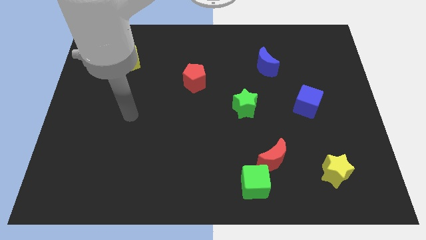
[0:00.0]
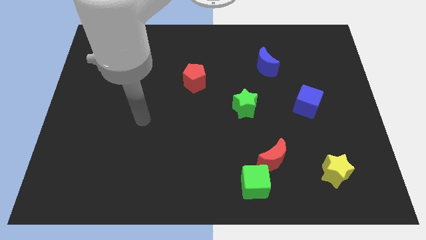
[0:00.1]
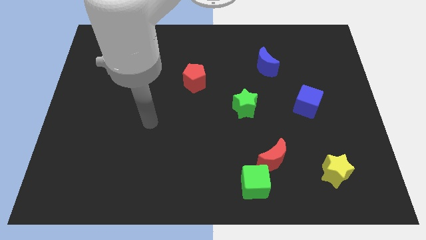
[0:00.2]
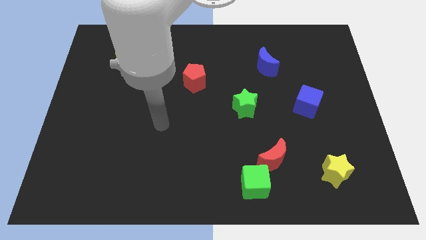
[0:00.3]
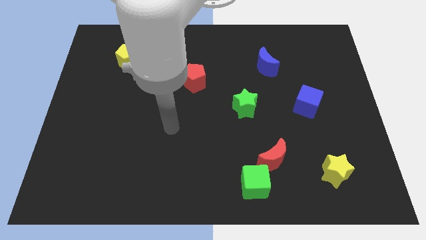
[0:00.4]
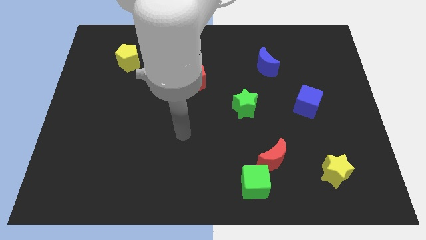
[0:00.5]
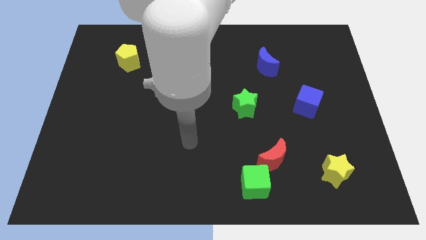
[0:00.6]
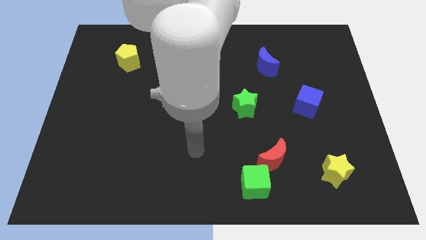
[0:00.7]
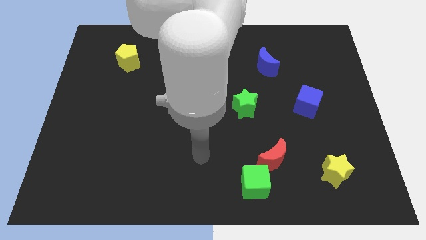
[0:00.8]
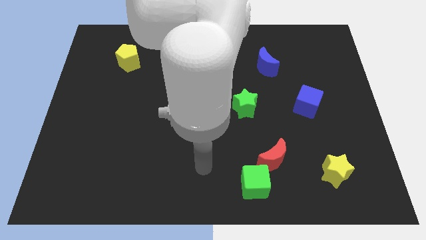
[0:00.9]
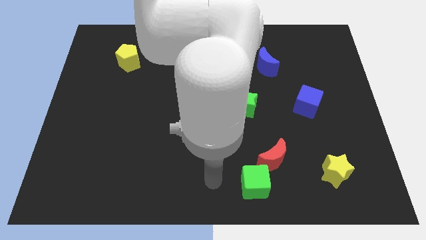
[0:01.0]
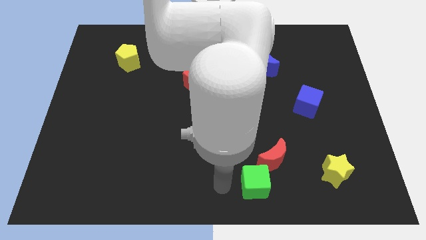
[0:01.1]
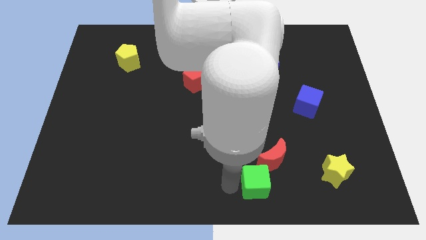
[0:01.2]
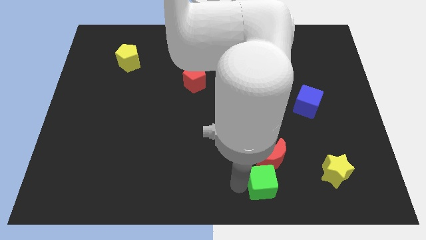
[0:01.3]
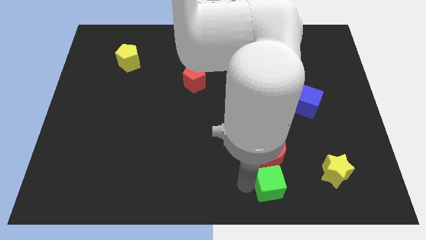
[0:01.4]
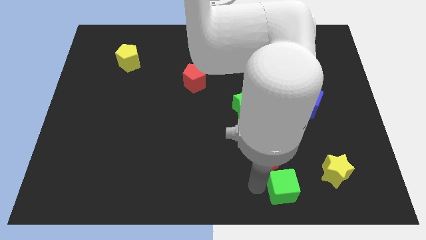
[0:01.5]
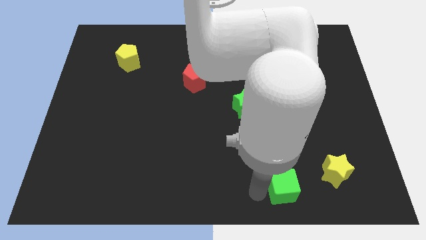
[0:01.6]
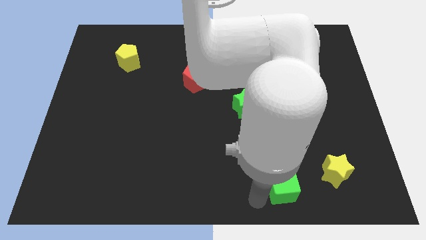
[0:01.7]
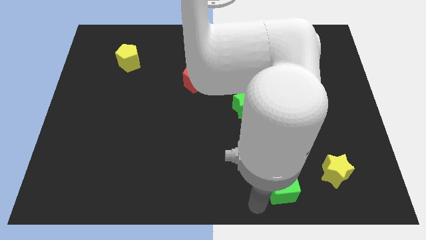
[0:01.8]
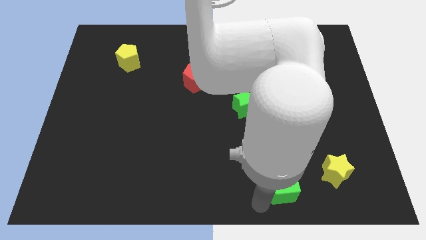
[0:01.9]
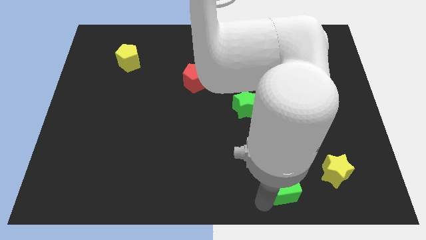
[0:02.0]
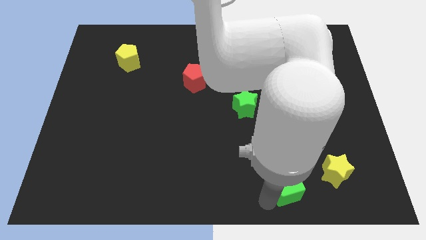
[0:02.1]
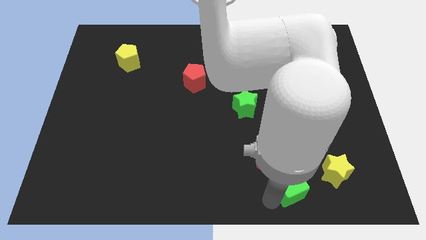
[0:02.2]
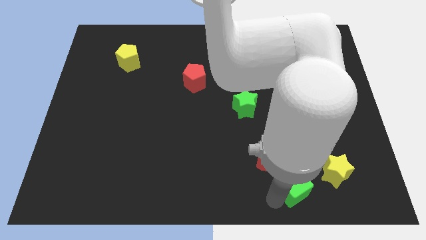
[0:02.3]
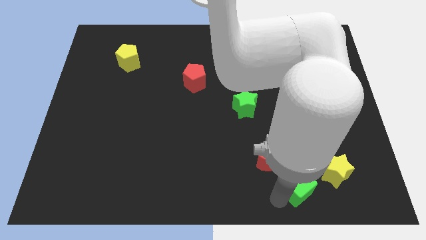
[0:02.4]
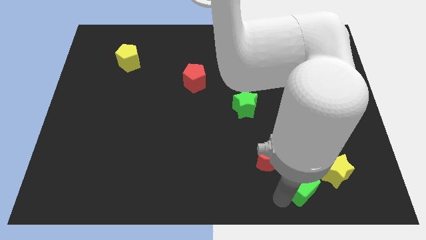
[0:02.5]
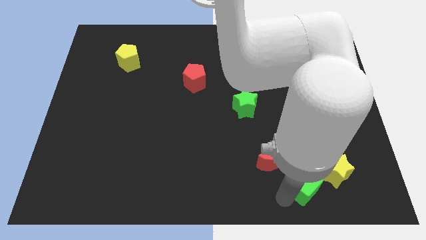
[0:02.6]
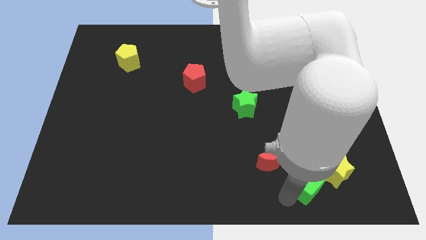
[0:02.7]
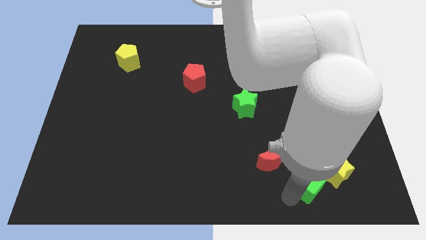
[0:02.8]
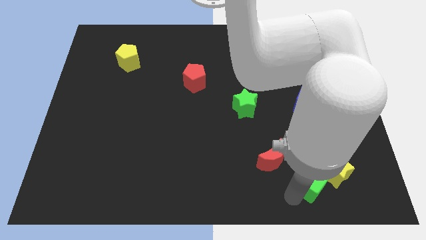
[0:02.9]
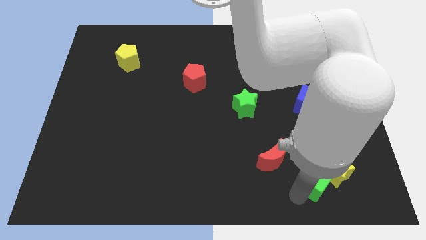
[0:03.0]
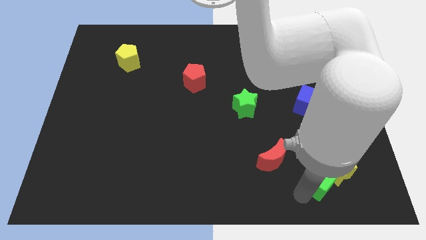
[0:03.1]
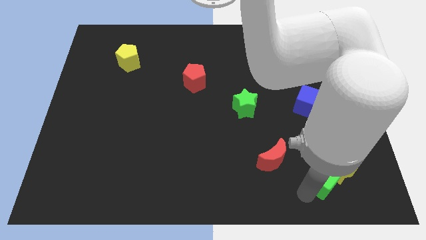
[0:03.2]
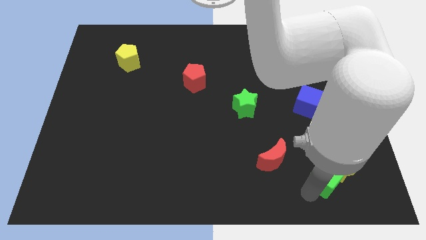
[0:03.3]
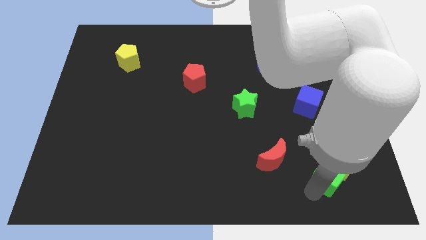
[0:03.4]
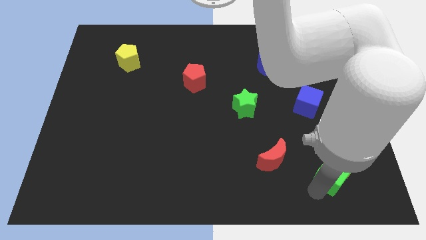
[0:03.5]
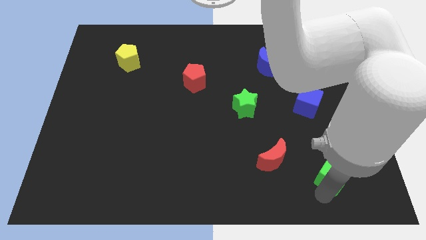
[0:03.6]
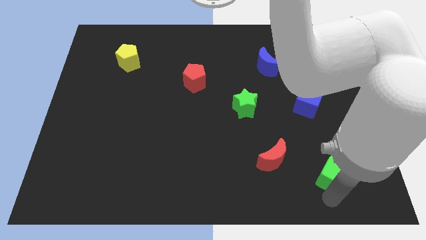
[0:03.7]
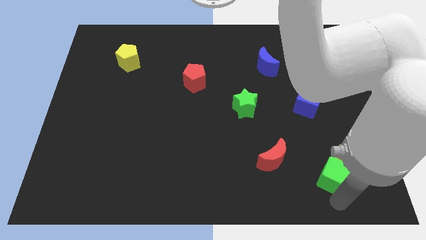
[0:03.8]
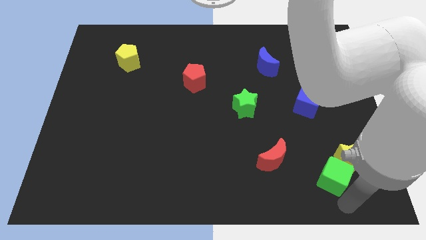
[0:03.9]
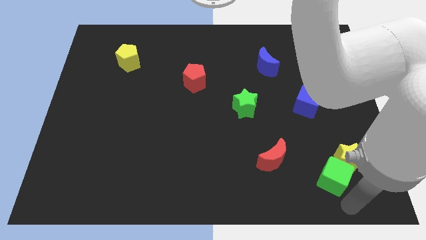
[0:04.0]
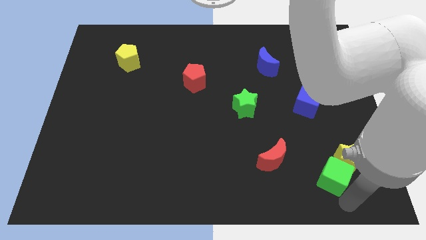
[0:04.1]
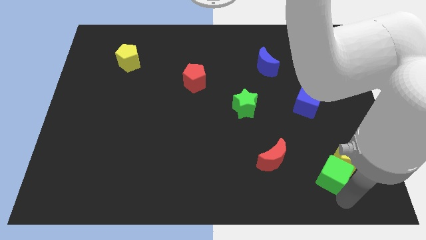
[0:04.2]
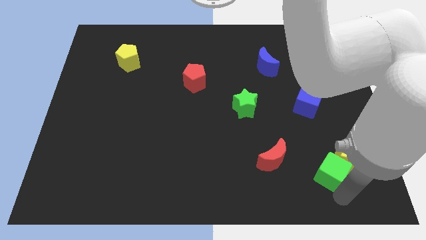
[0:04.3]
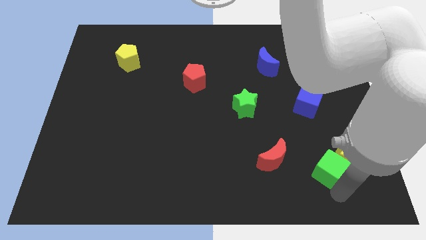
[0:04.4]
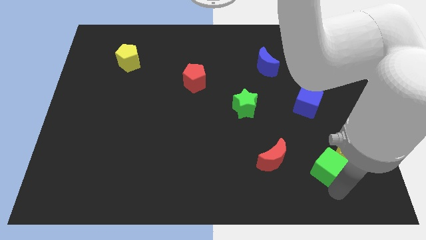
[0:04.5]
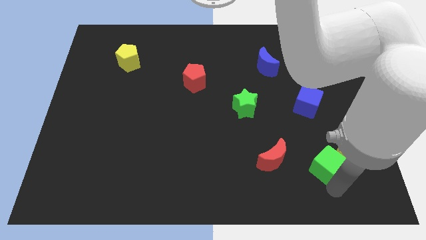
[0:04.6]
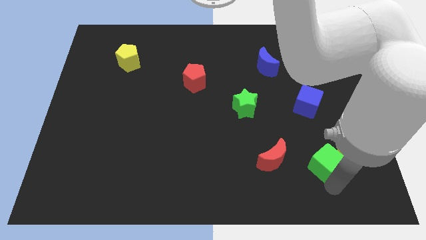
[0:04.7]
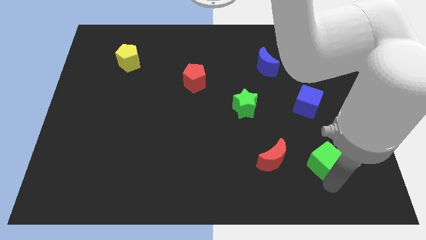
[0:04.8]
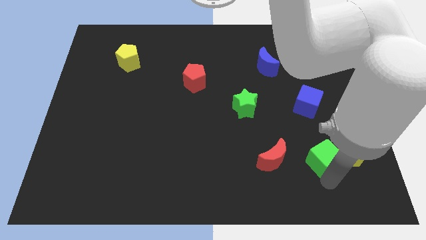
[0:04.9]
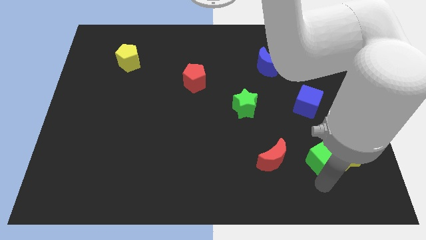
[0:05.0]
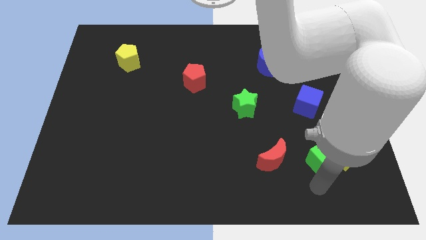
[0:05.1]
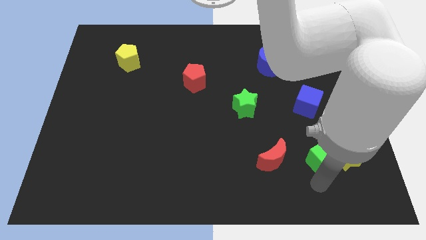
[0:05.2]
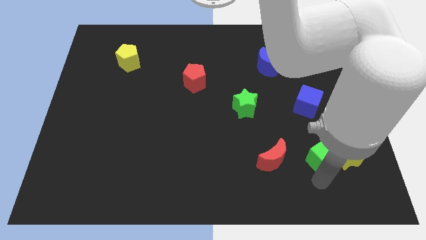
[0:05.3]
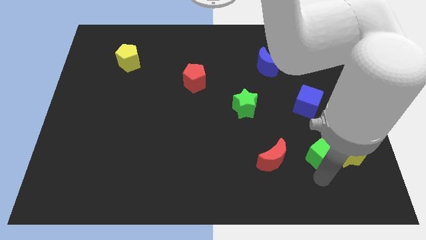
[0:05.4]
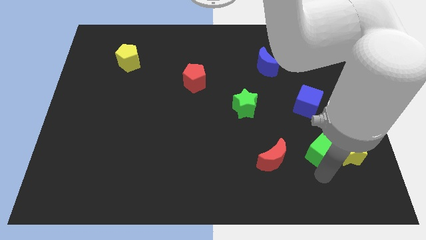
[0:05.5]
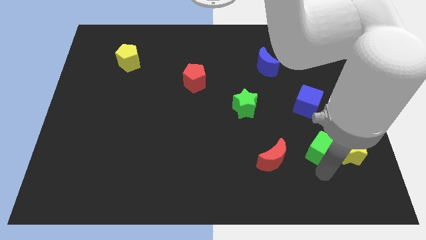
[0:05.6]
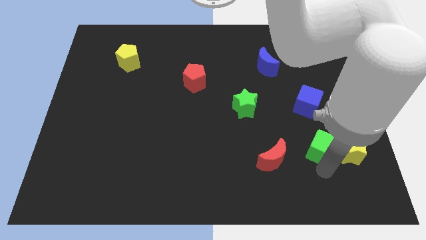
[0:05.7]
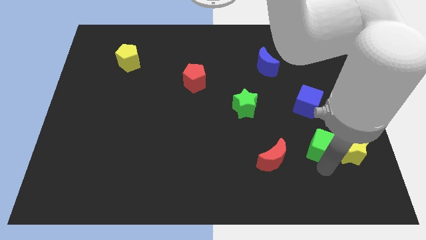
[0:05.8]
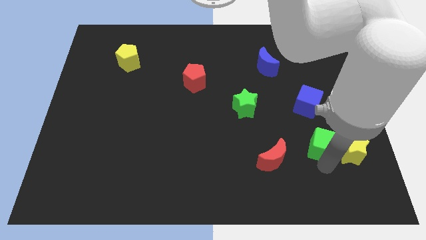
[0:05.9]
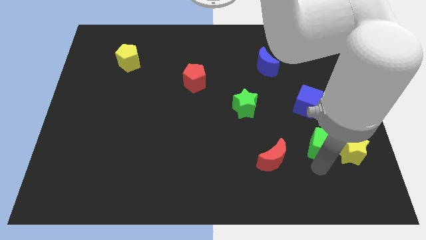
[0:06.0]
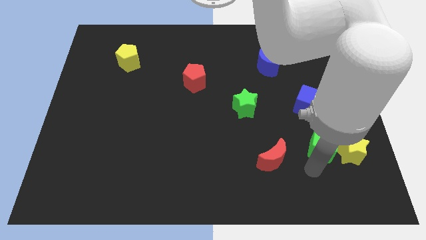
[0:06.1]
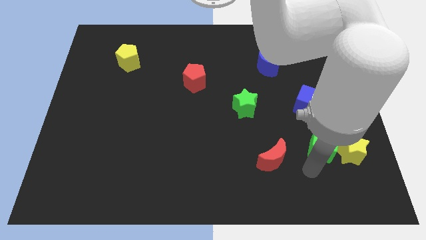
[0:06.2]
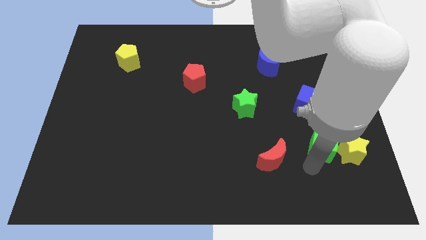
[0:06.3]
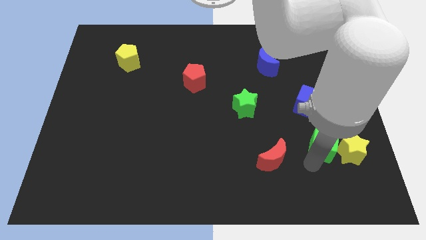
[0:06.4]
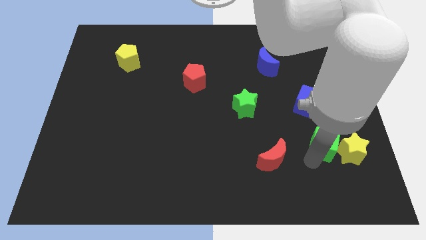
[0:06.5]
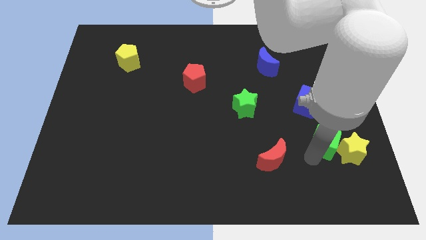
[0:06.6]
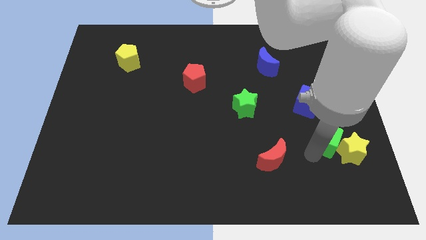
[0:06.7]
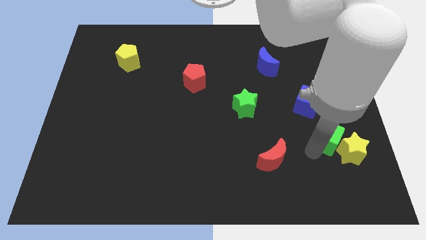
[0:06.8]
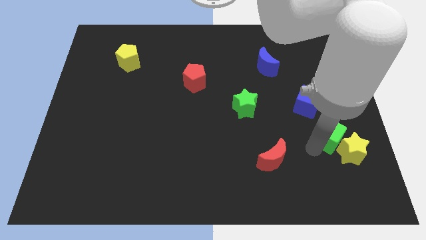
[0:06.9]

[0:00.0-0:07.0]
move the green cube to the bottom right side of the blue cube

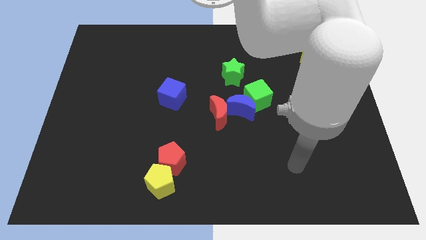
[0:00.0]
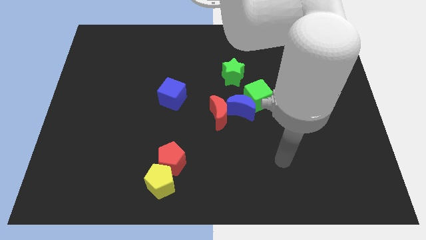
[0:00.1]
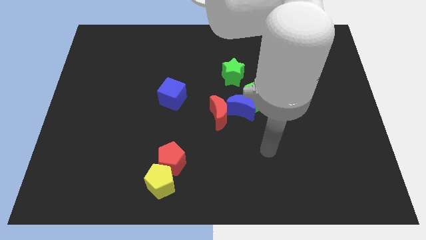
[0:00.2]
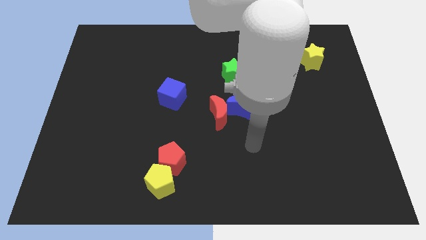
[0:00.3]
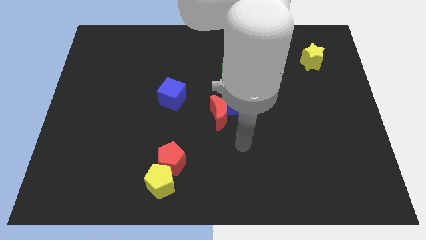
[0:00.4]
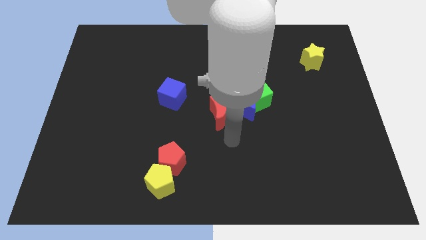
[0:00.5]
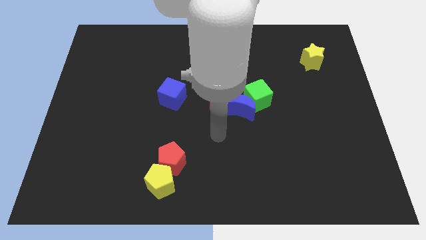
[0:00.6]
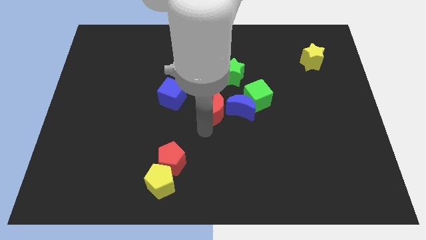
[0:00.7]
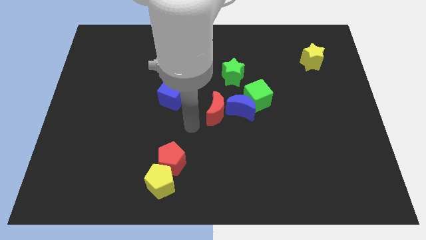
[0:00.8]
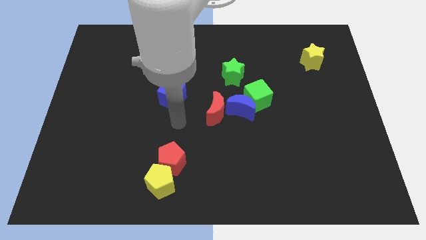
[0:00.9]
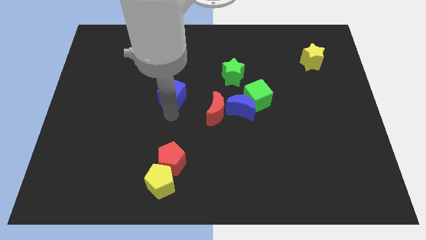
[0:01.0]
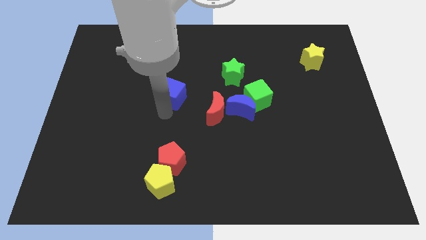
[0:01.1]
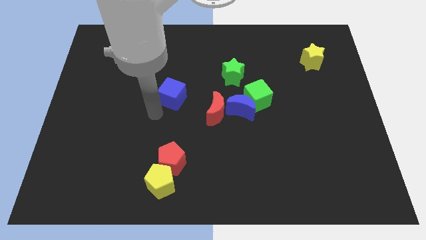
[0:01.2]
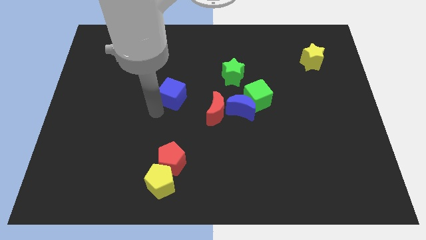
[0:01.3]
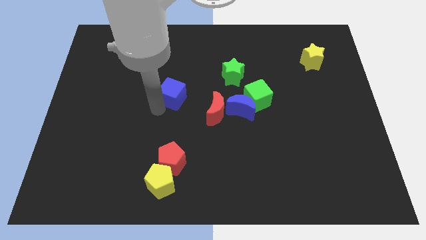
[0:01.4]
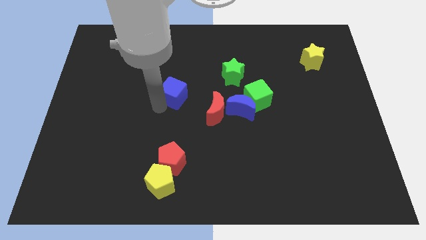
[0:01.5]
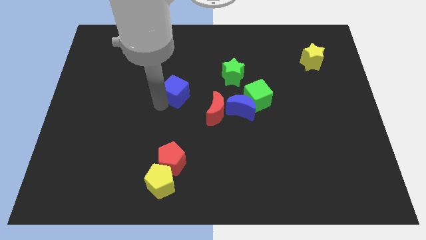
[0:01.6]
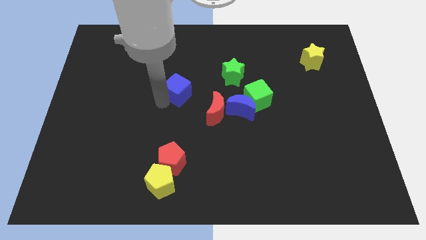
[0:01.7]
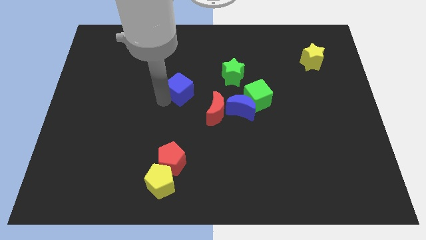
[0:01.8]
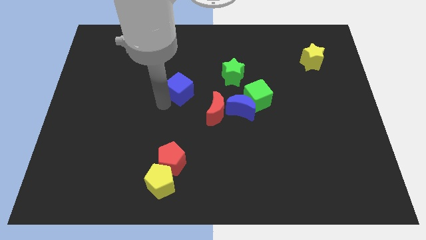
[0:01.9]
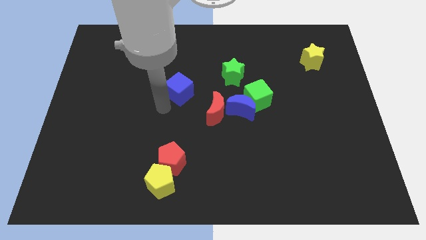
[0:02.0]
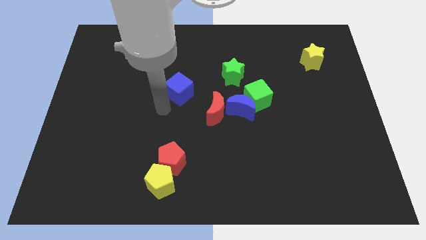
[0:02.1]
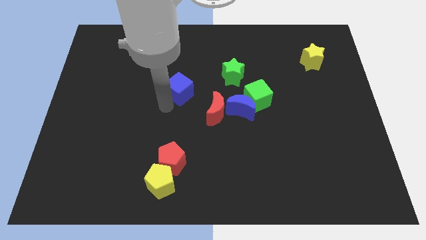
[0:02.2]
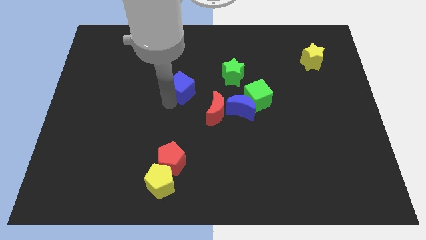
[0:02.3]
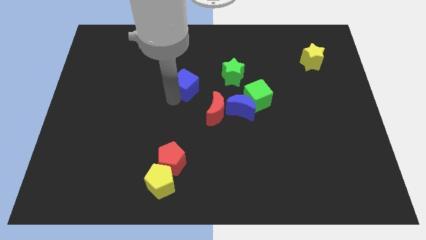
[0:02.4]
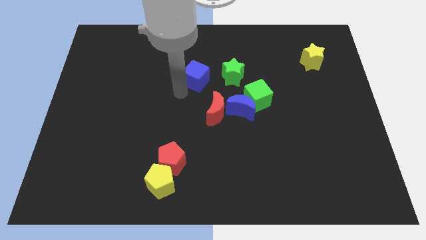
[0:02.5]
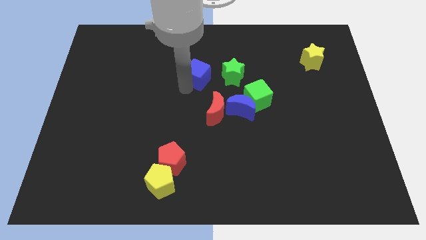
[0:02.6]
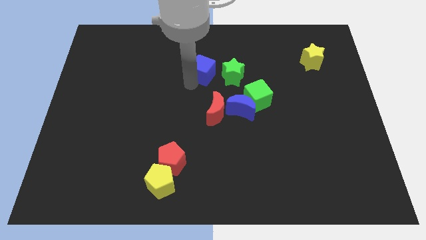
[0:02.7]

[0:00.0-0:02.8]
put the blue cube to the top left side of the green star
